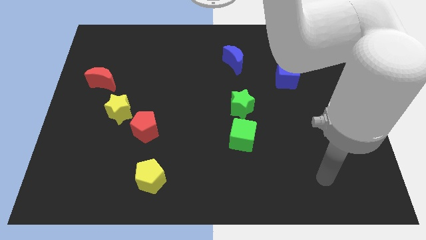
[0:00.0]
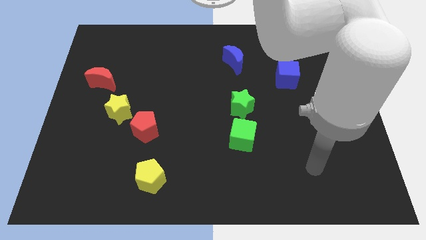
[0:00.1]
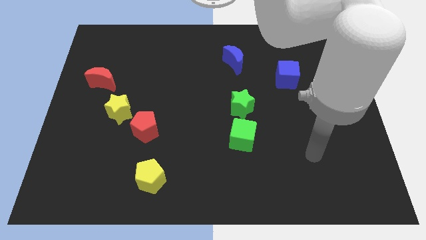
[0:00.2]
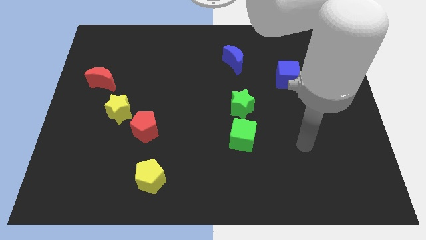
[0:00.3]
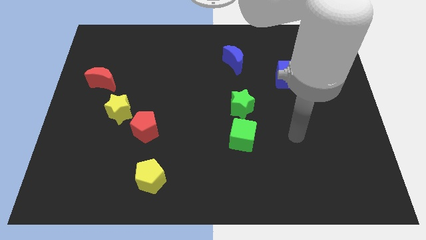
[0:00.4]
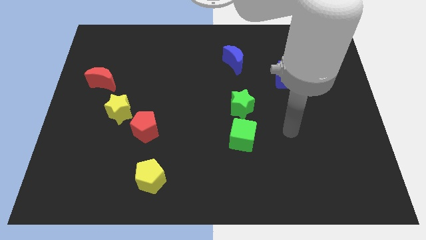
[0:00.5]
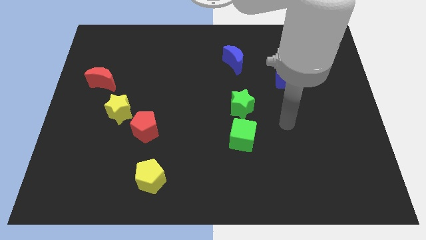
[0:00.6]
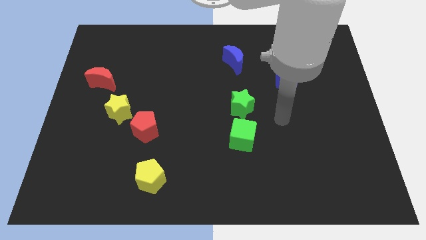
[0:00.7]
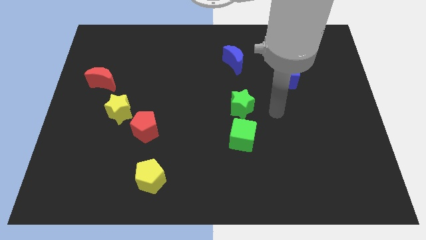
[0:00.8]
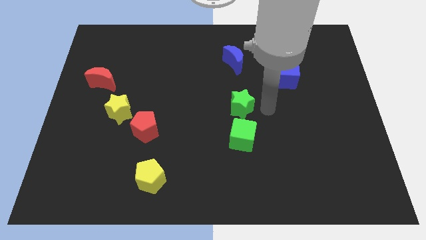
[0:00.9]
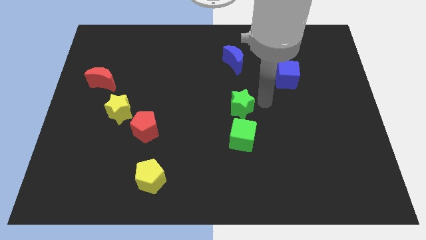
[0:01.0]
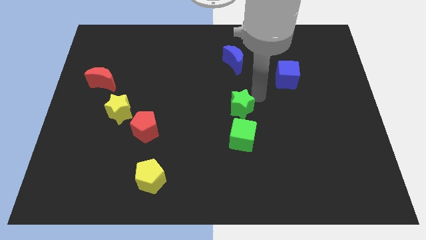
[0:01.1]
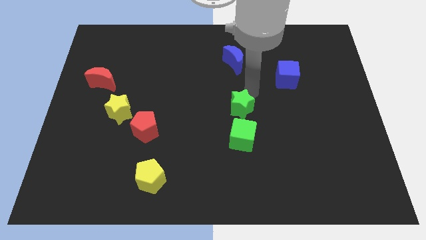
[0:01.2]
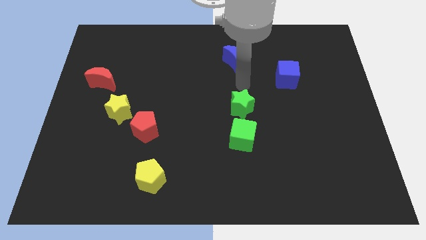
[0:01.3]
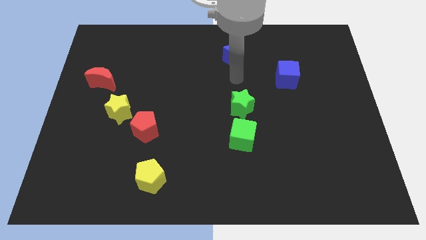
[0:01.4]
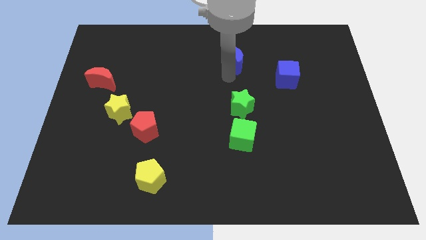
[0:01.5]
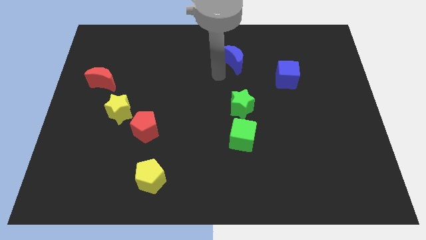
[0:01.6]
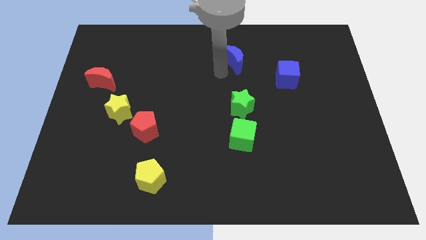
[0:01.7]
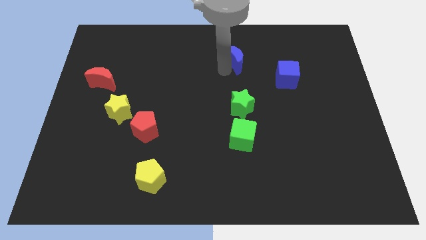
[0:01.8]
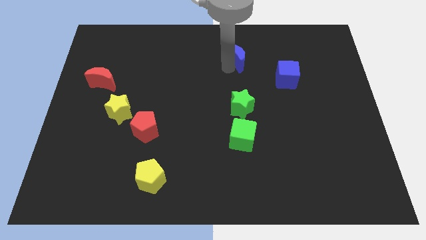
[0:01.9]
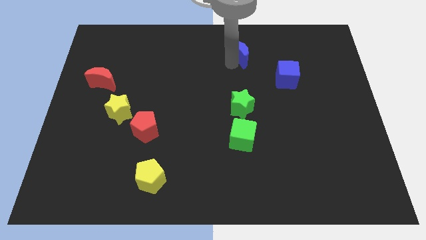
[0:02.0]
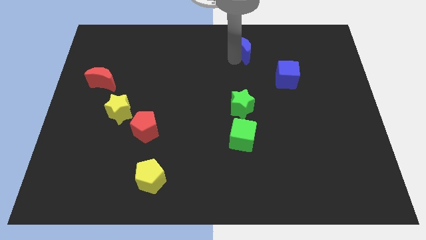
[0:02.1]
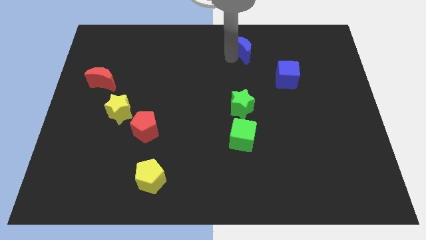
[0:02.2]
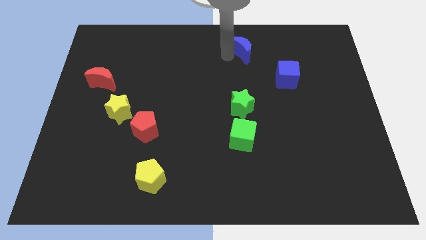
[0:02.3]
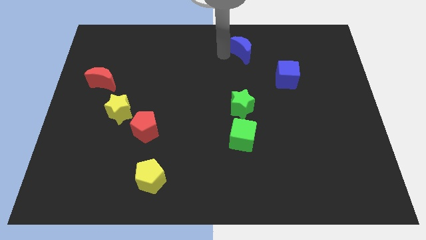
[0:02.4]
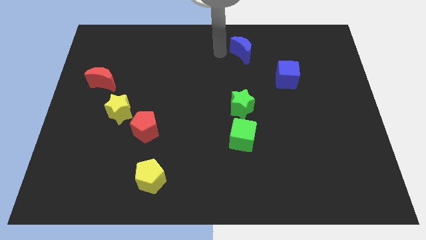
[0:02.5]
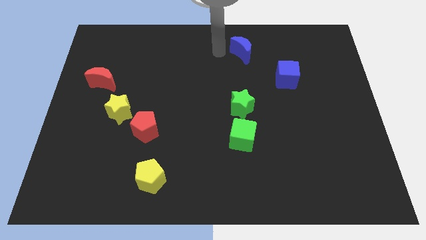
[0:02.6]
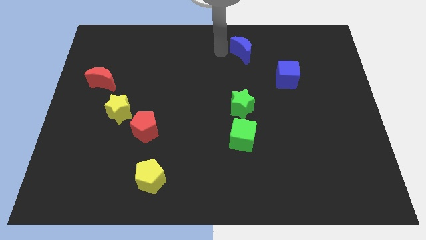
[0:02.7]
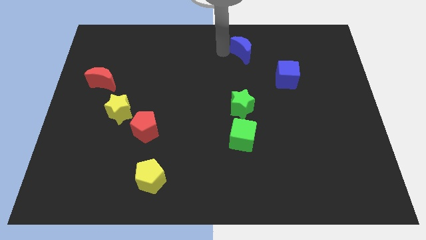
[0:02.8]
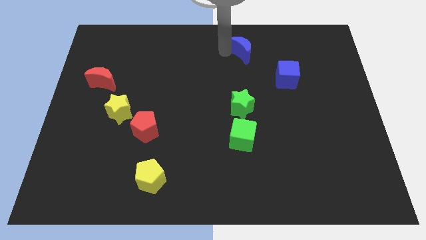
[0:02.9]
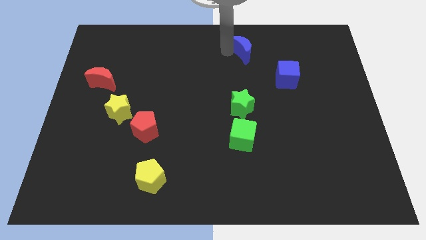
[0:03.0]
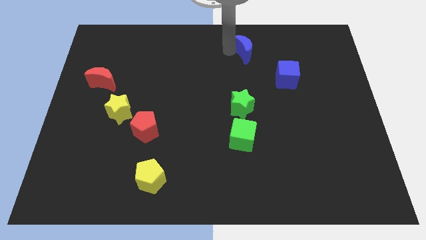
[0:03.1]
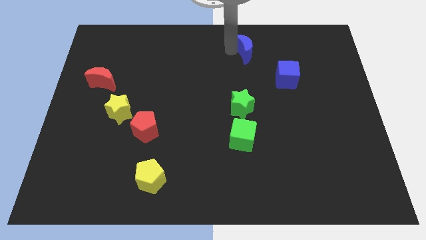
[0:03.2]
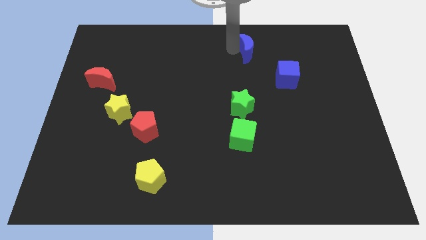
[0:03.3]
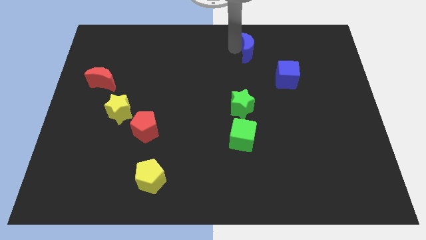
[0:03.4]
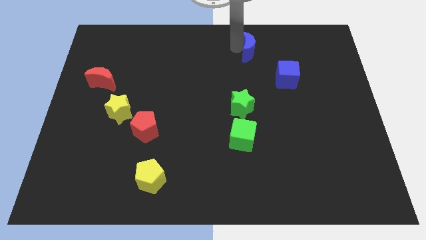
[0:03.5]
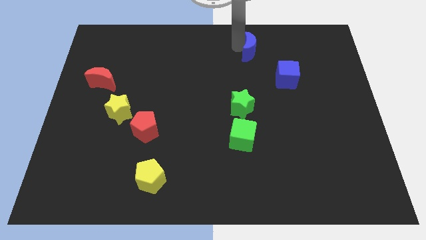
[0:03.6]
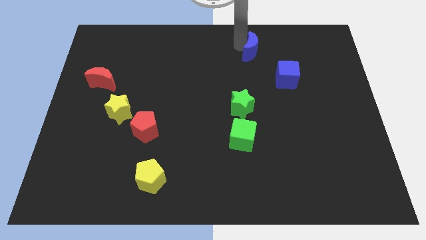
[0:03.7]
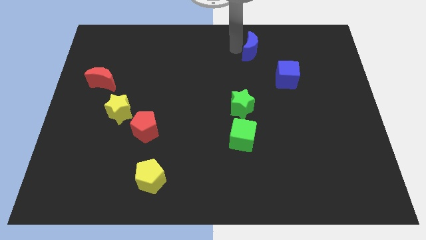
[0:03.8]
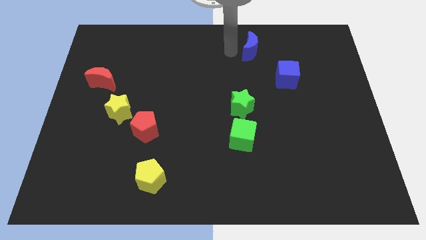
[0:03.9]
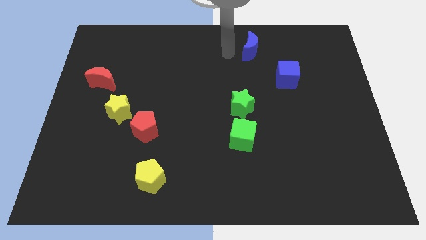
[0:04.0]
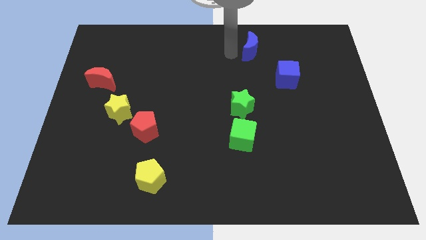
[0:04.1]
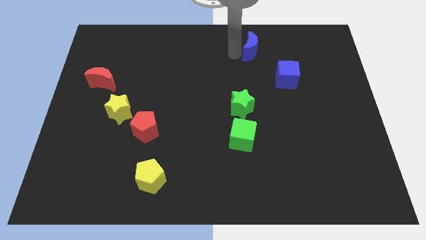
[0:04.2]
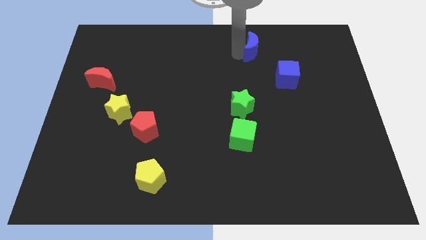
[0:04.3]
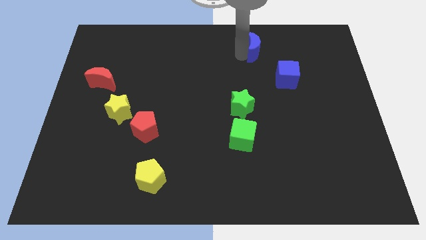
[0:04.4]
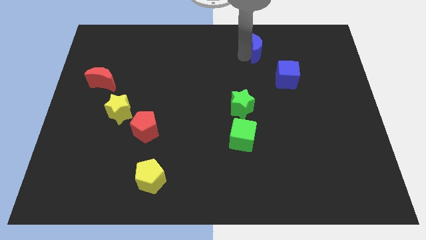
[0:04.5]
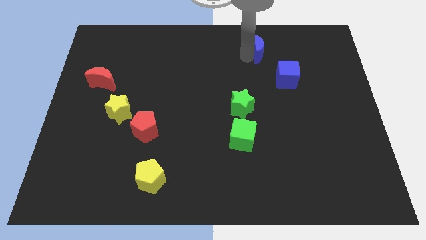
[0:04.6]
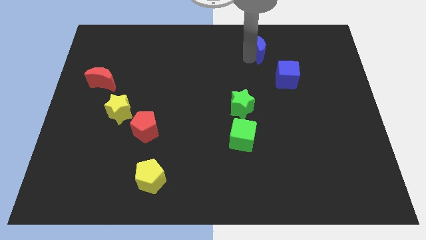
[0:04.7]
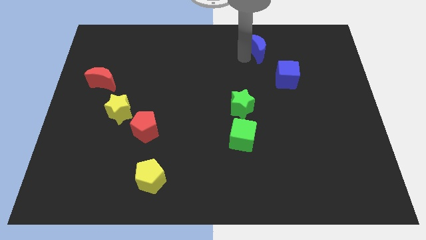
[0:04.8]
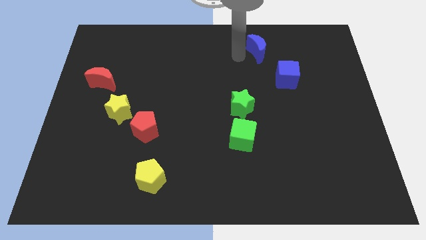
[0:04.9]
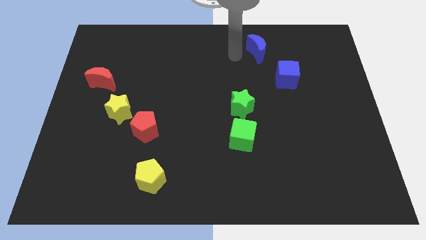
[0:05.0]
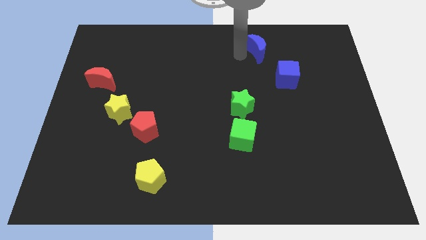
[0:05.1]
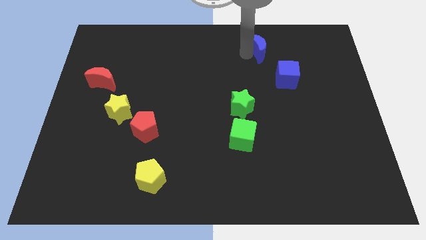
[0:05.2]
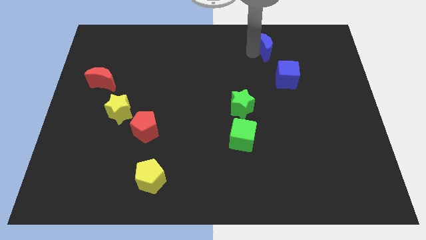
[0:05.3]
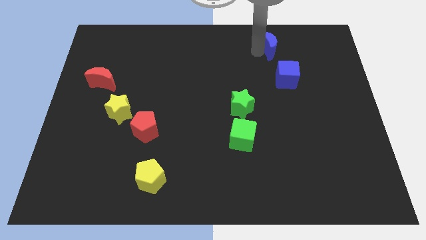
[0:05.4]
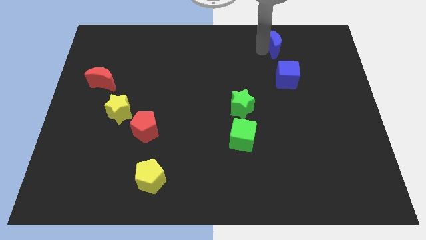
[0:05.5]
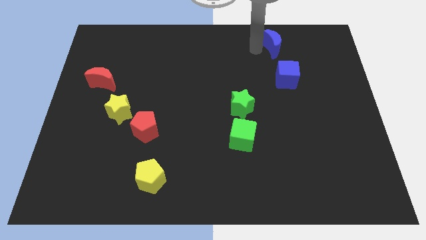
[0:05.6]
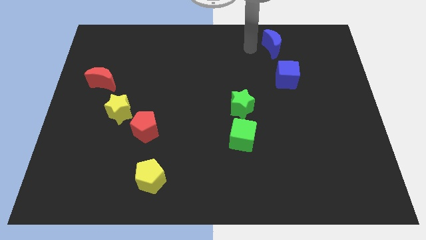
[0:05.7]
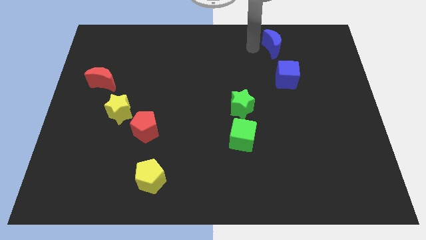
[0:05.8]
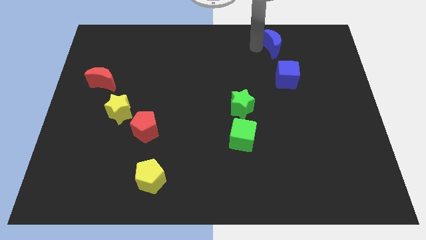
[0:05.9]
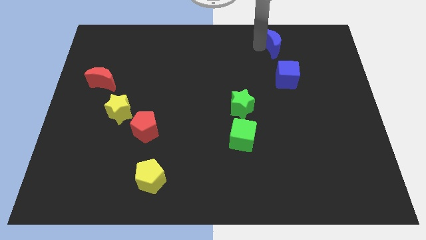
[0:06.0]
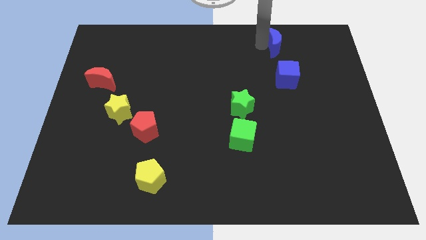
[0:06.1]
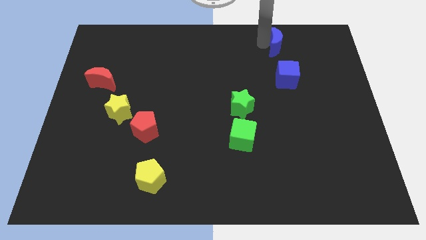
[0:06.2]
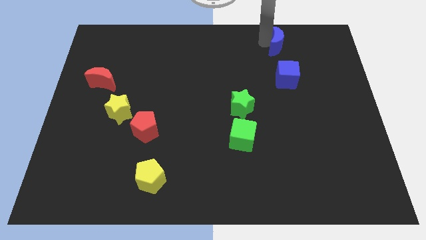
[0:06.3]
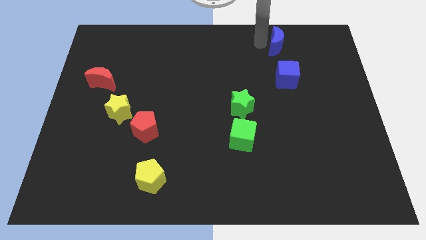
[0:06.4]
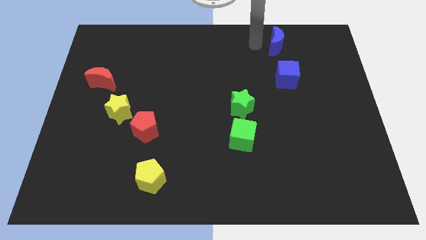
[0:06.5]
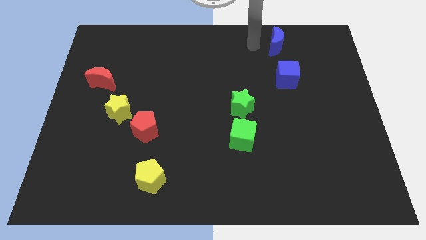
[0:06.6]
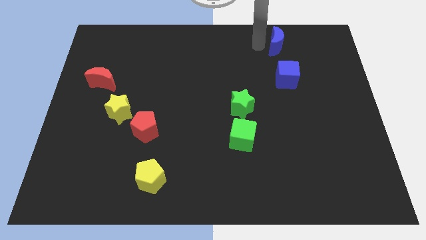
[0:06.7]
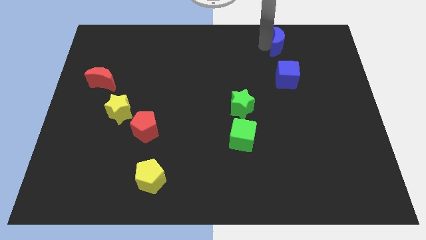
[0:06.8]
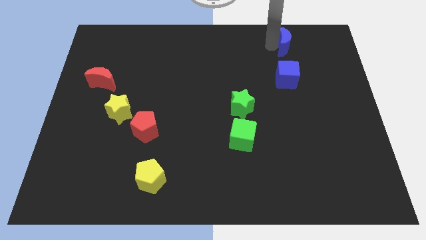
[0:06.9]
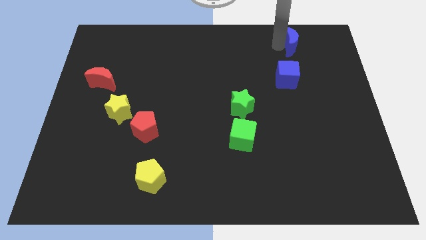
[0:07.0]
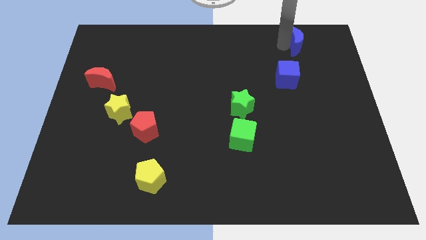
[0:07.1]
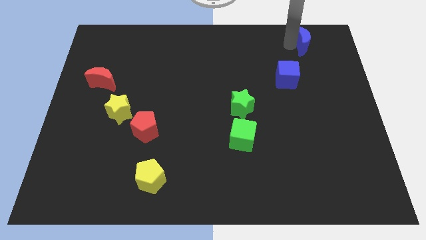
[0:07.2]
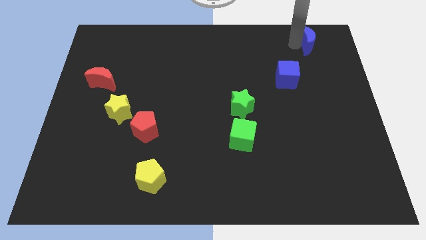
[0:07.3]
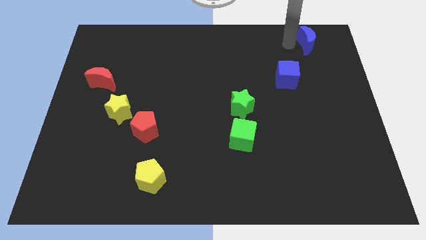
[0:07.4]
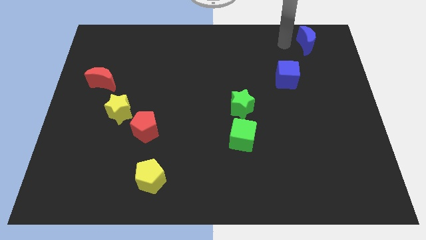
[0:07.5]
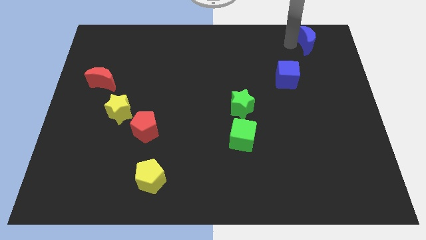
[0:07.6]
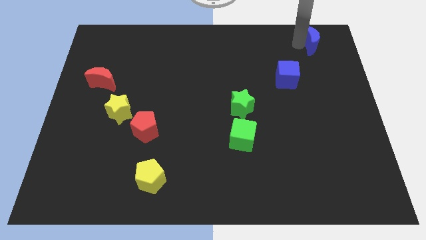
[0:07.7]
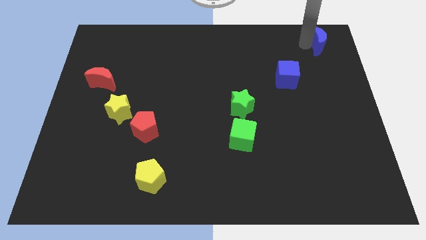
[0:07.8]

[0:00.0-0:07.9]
push the blue moon to the top right of the board
